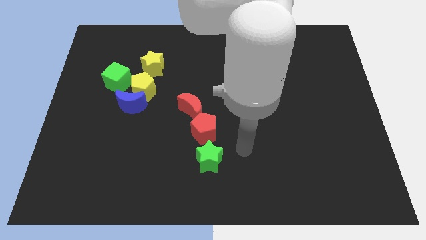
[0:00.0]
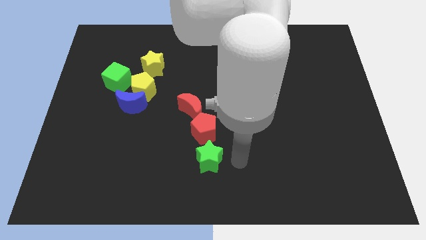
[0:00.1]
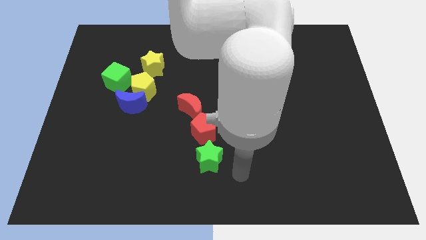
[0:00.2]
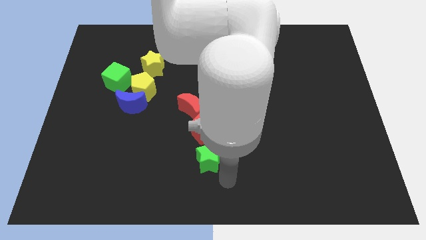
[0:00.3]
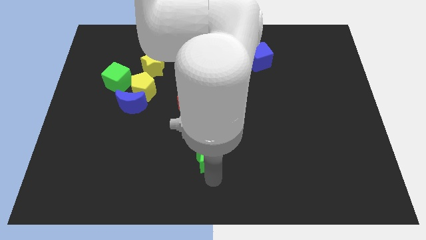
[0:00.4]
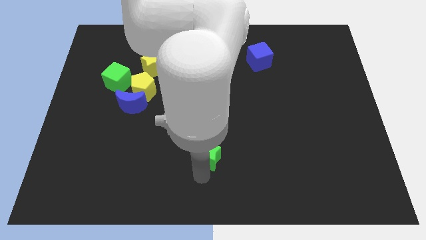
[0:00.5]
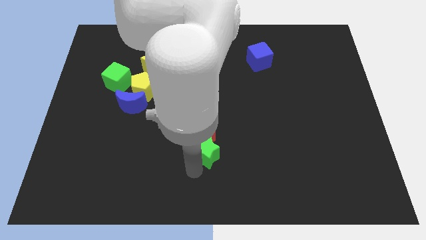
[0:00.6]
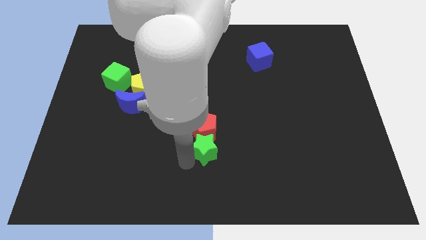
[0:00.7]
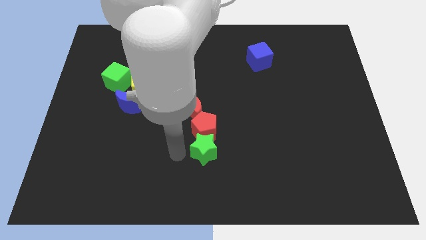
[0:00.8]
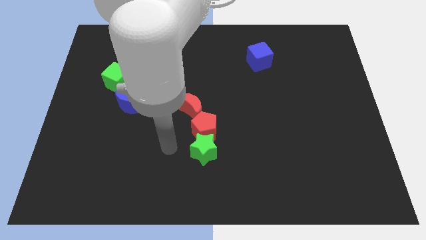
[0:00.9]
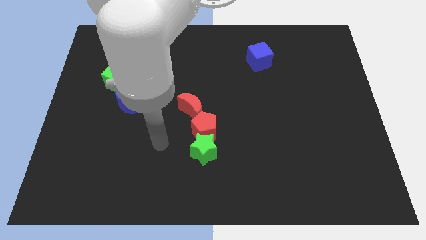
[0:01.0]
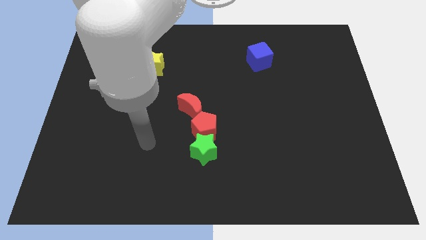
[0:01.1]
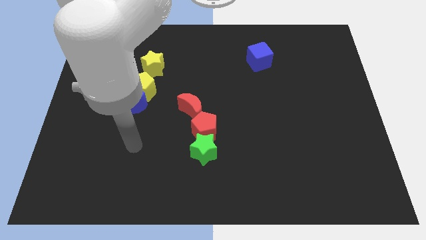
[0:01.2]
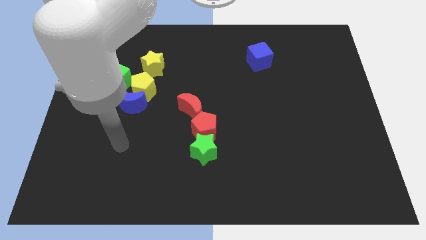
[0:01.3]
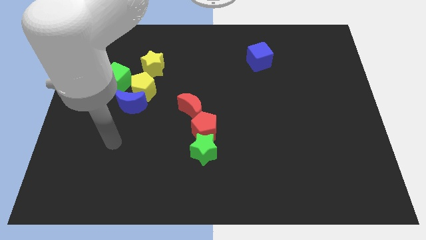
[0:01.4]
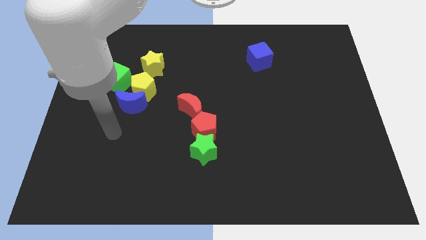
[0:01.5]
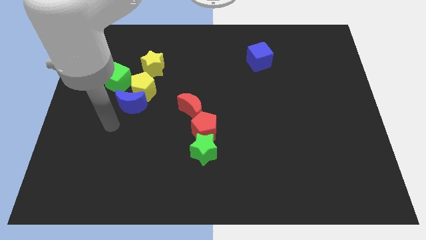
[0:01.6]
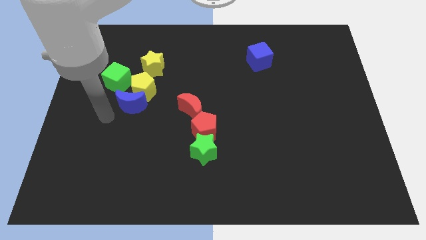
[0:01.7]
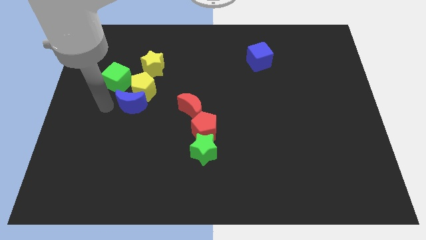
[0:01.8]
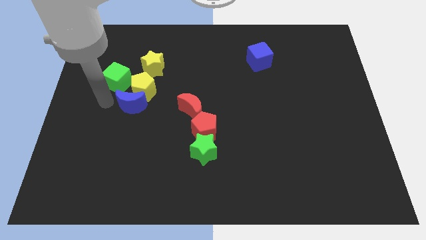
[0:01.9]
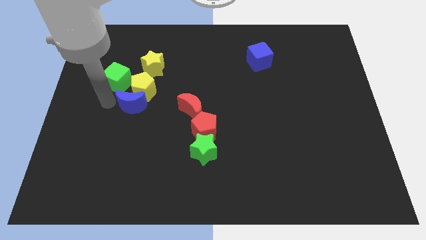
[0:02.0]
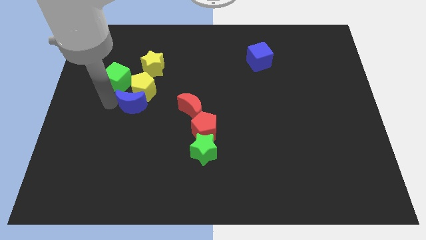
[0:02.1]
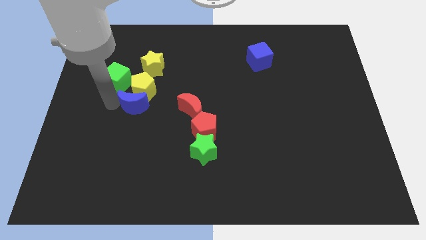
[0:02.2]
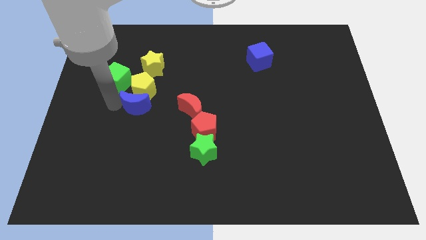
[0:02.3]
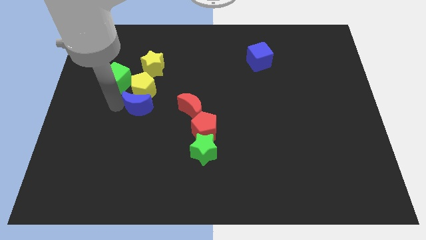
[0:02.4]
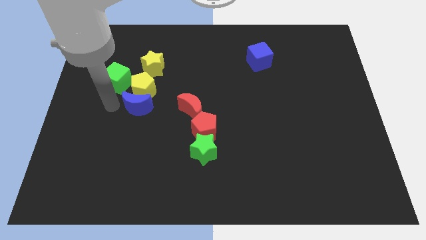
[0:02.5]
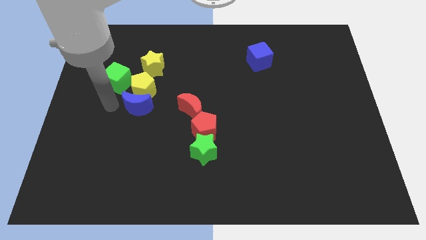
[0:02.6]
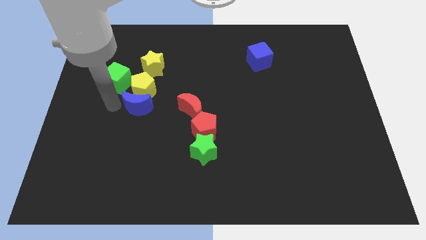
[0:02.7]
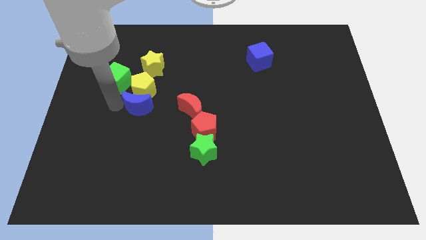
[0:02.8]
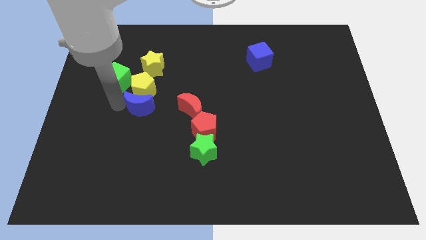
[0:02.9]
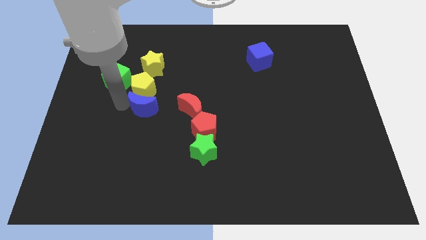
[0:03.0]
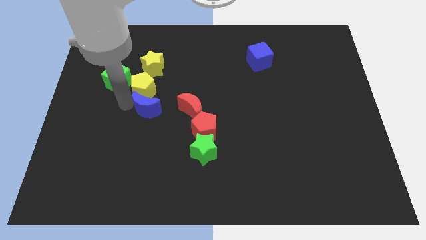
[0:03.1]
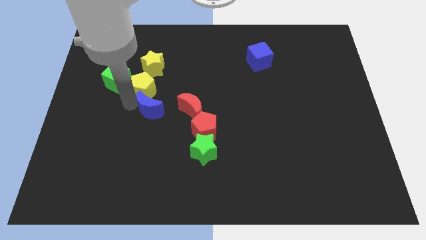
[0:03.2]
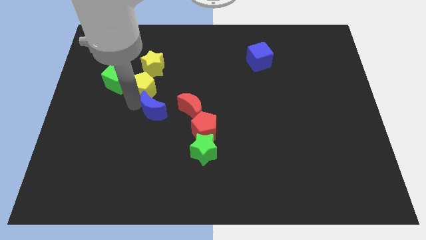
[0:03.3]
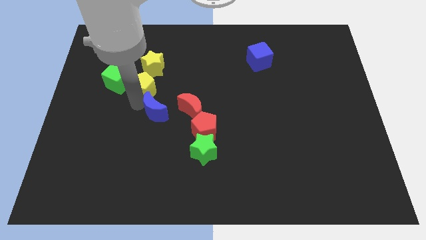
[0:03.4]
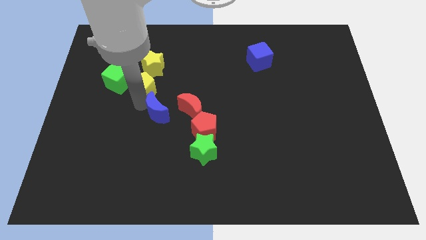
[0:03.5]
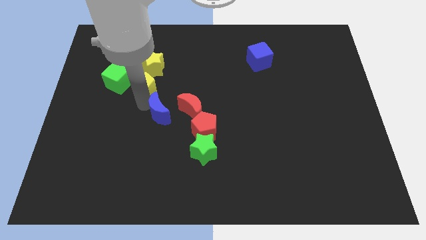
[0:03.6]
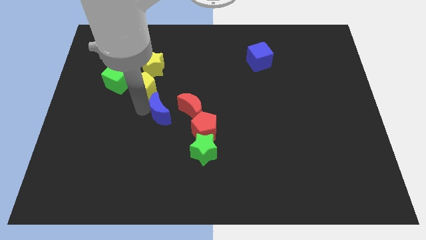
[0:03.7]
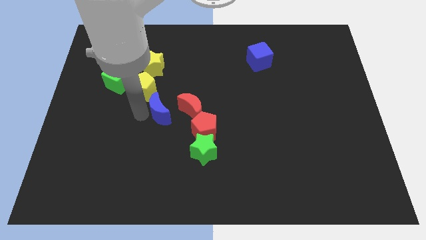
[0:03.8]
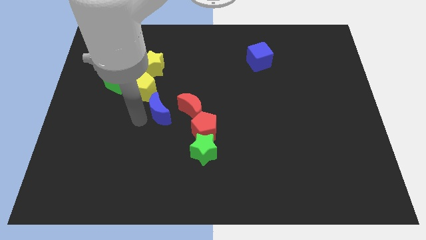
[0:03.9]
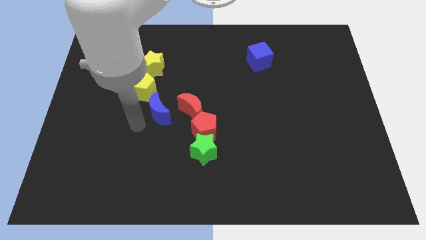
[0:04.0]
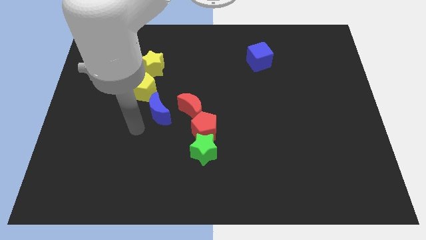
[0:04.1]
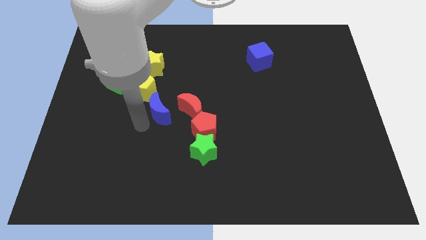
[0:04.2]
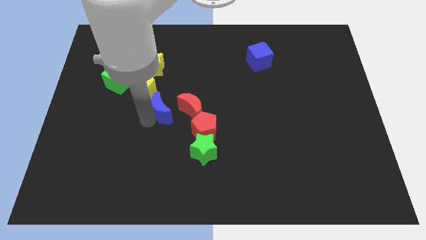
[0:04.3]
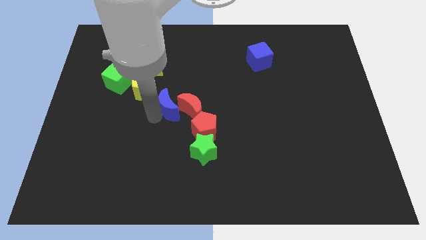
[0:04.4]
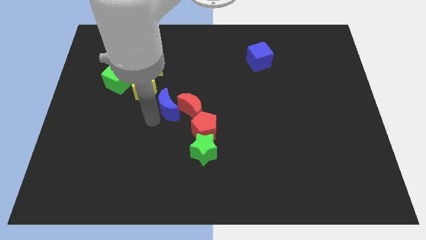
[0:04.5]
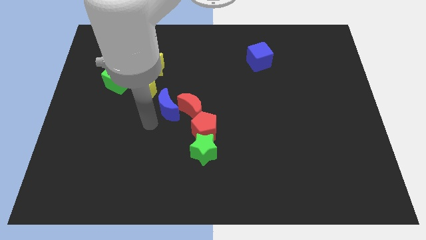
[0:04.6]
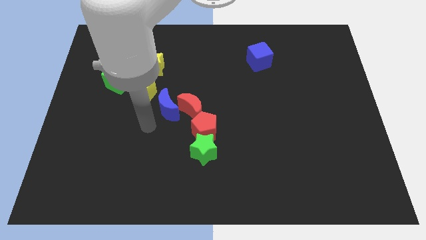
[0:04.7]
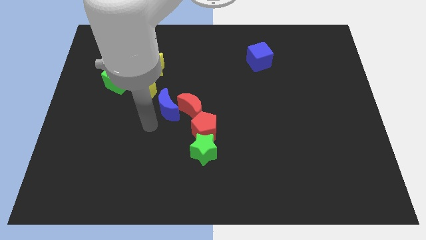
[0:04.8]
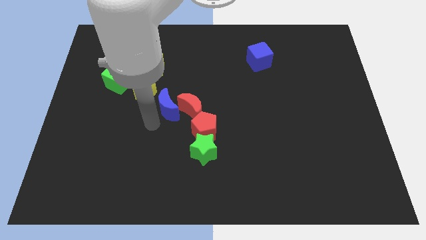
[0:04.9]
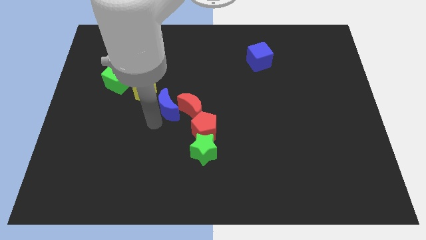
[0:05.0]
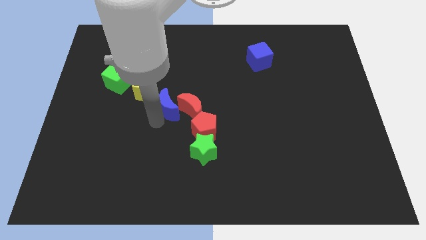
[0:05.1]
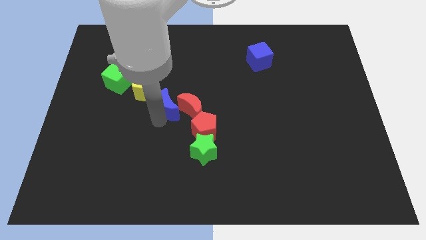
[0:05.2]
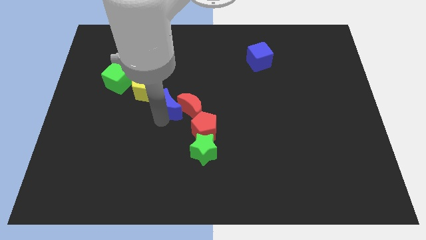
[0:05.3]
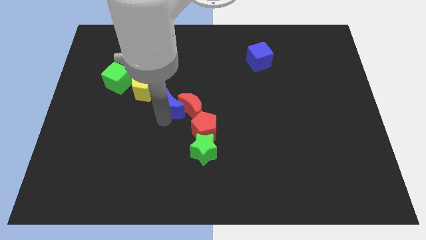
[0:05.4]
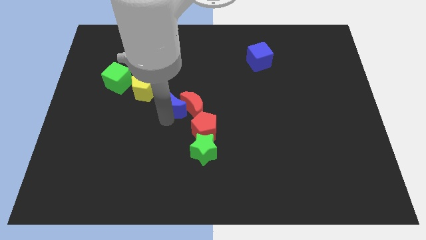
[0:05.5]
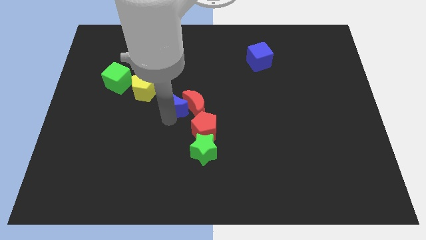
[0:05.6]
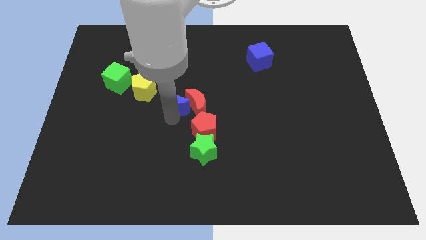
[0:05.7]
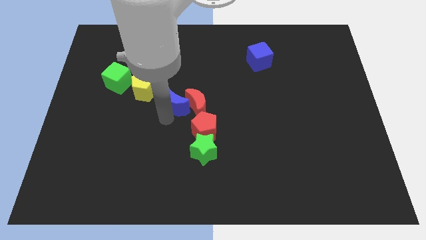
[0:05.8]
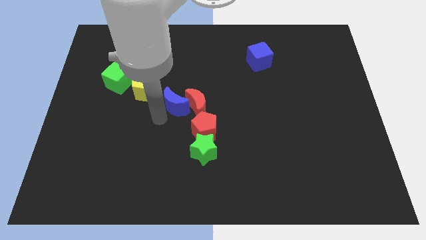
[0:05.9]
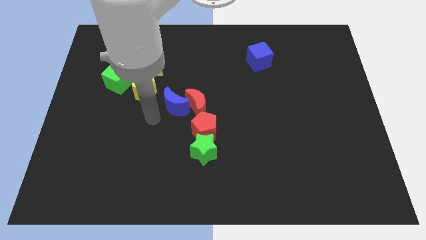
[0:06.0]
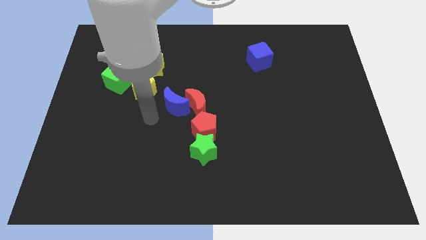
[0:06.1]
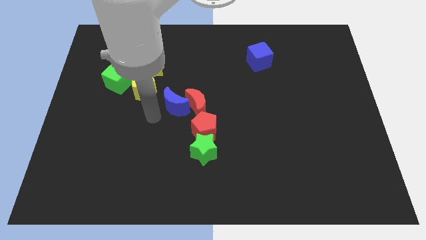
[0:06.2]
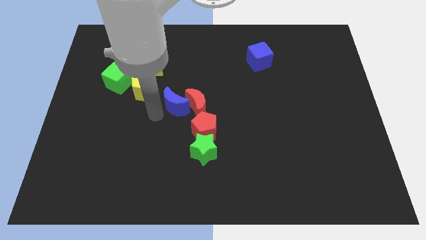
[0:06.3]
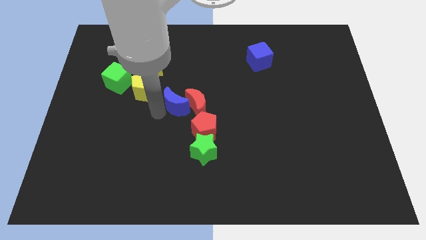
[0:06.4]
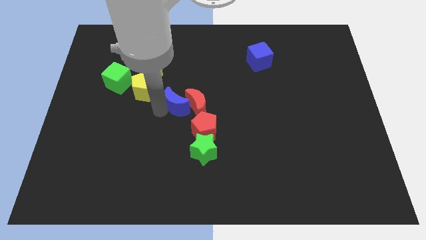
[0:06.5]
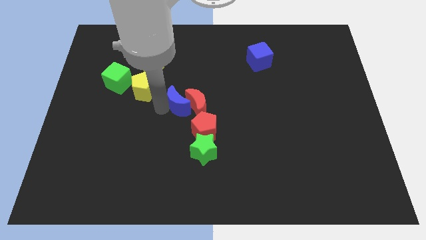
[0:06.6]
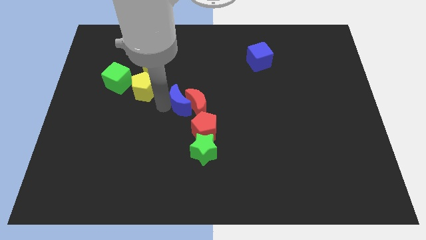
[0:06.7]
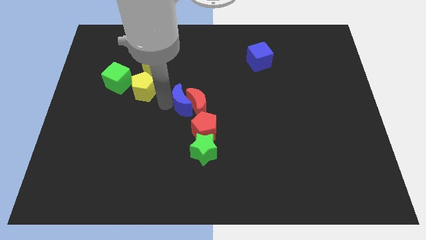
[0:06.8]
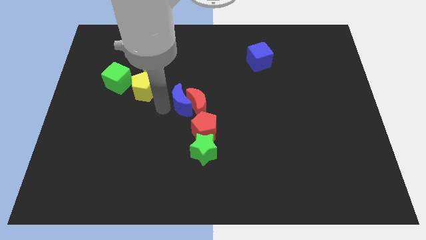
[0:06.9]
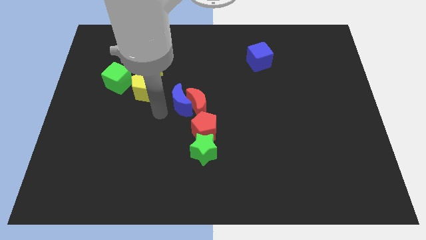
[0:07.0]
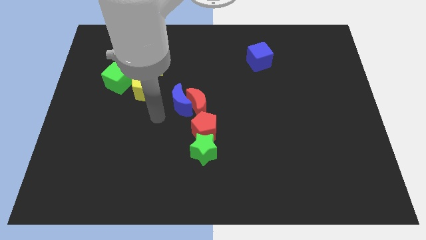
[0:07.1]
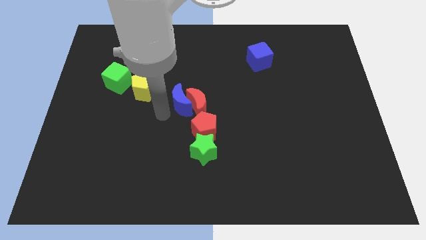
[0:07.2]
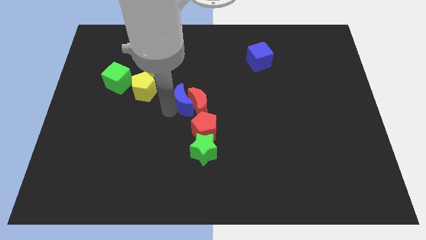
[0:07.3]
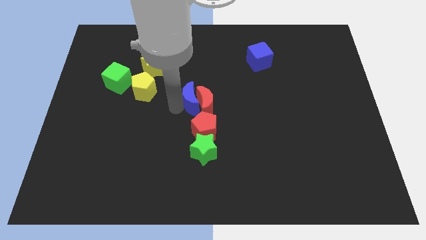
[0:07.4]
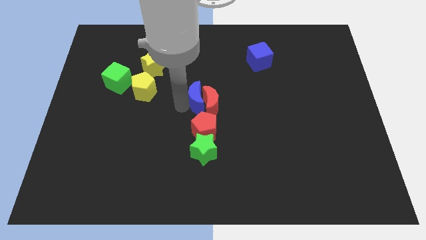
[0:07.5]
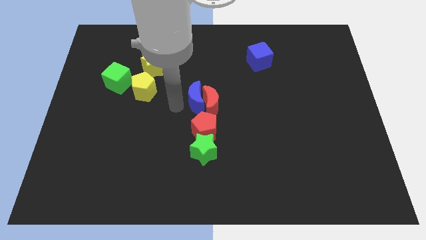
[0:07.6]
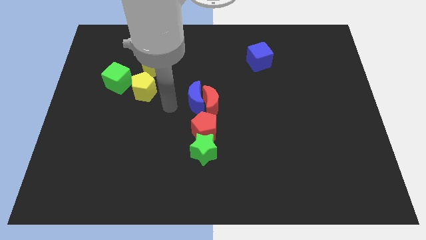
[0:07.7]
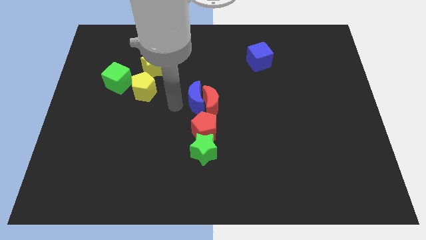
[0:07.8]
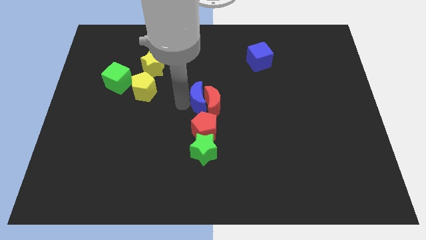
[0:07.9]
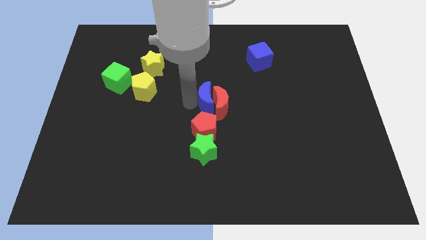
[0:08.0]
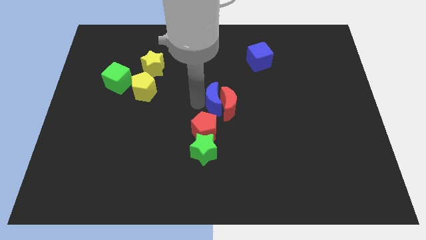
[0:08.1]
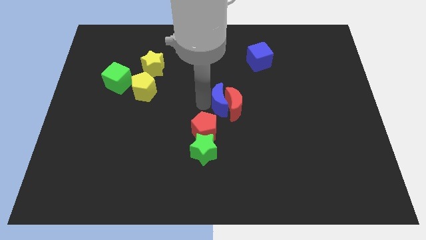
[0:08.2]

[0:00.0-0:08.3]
slide the blue moon right
